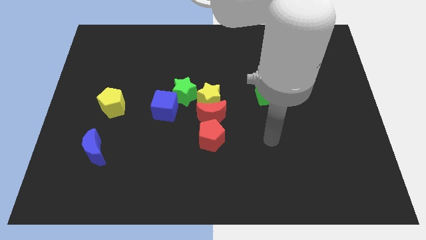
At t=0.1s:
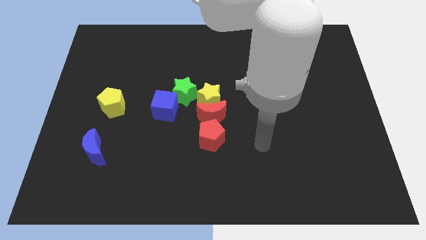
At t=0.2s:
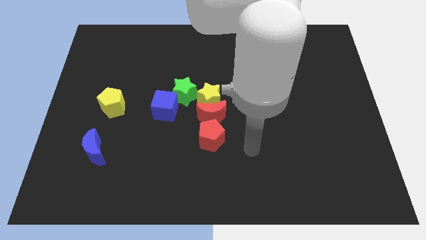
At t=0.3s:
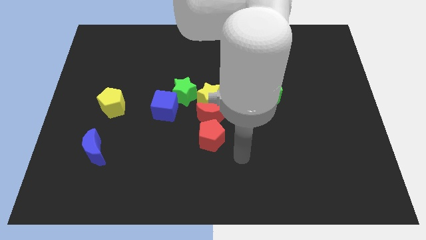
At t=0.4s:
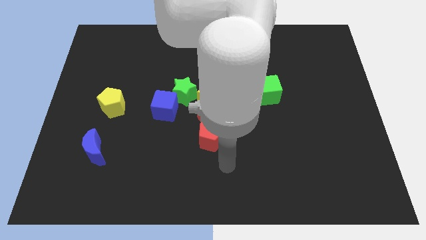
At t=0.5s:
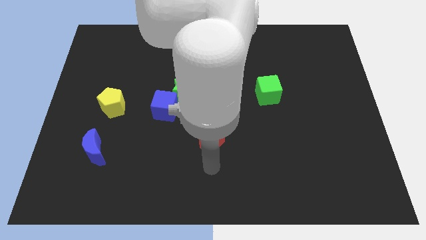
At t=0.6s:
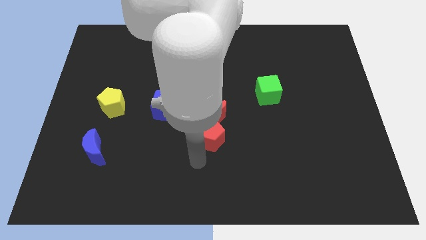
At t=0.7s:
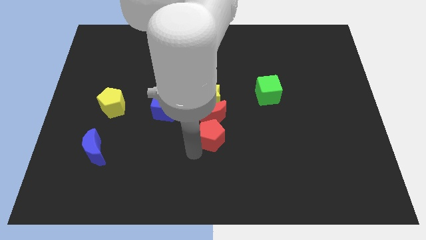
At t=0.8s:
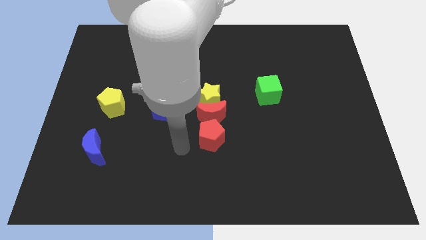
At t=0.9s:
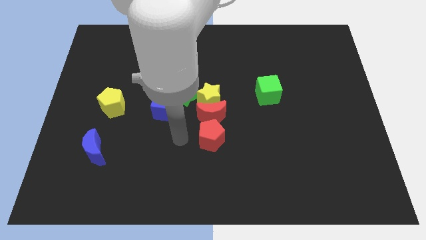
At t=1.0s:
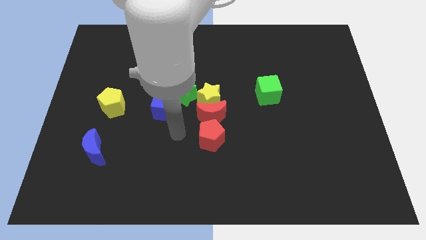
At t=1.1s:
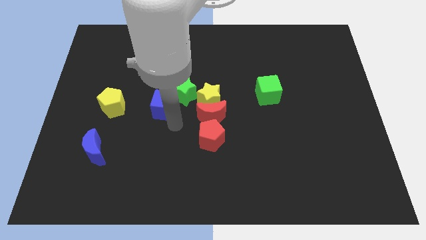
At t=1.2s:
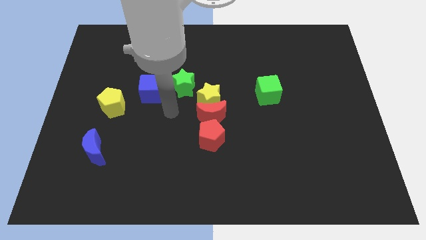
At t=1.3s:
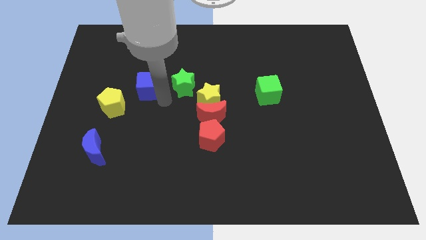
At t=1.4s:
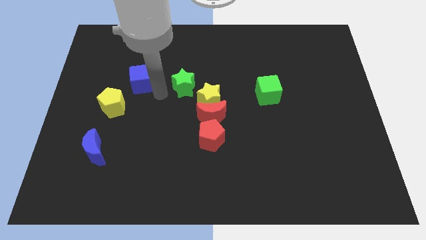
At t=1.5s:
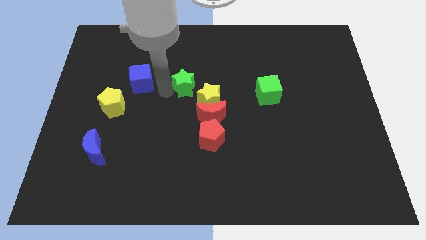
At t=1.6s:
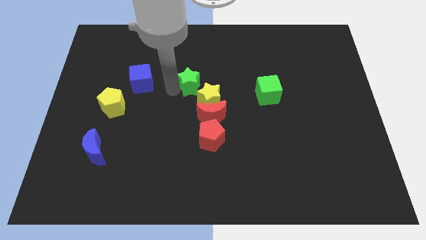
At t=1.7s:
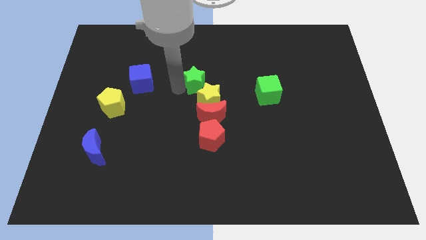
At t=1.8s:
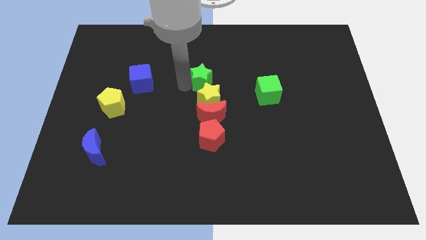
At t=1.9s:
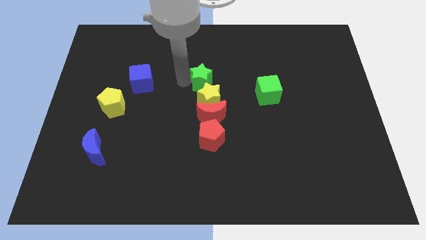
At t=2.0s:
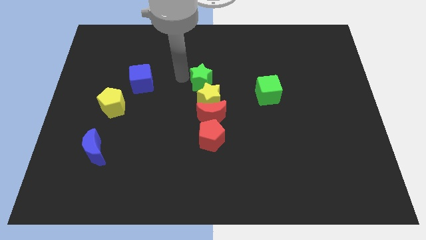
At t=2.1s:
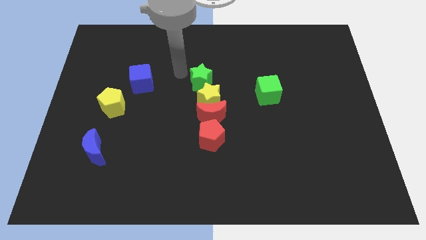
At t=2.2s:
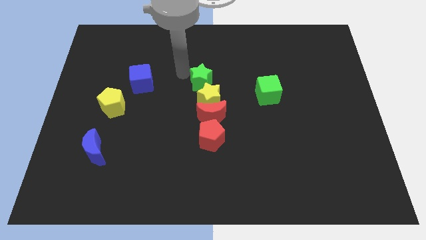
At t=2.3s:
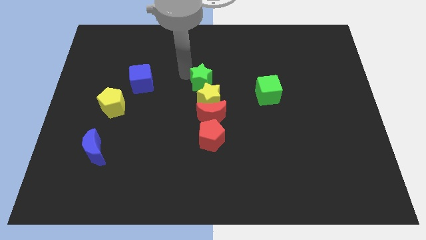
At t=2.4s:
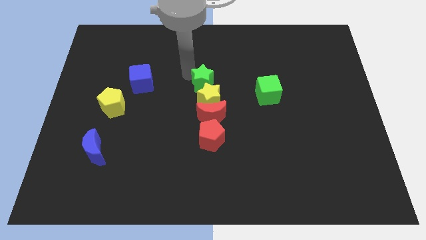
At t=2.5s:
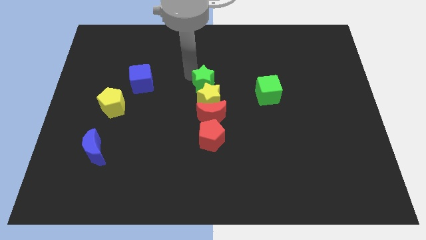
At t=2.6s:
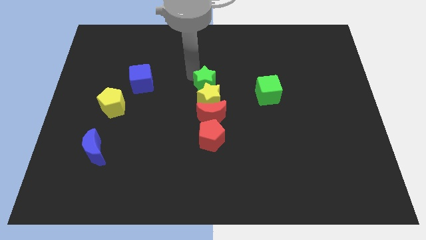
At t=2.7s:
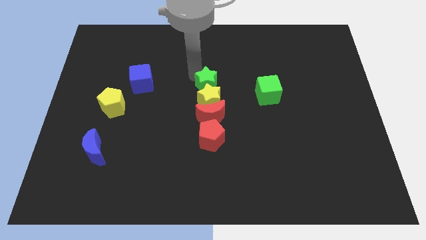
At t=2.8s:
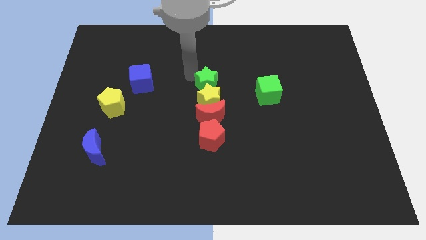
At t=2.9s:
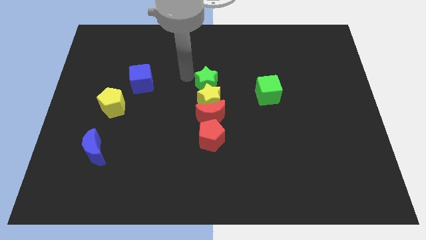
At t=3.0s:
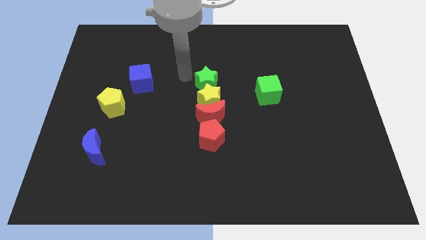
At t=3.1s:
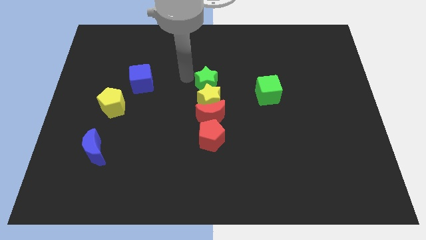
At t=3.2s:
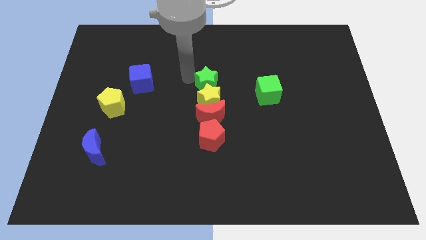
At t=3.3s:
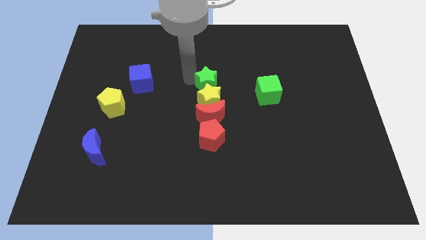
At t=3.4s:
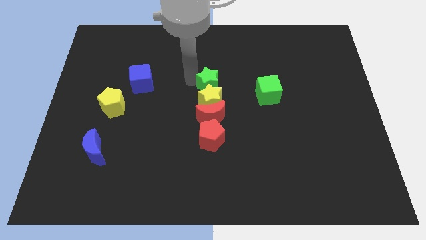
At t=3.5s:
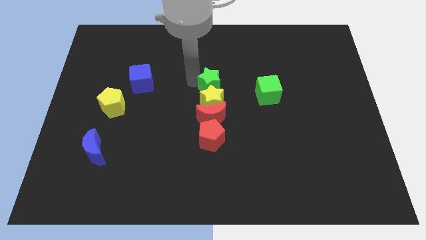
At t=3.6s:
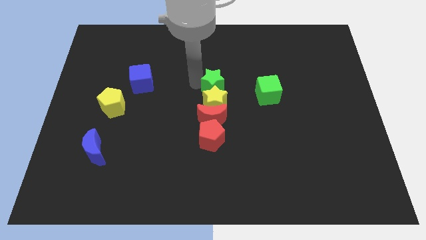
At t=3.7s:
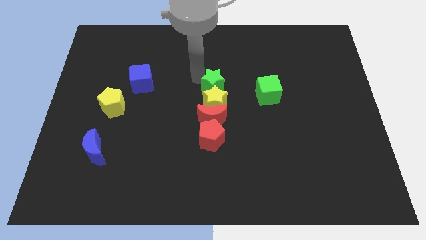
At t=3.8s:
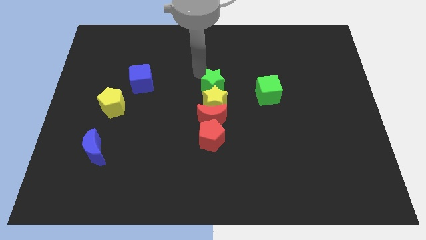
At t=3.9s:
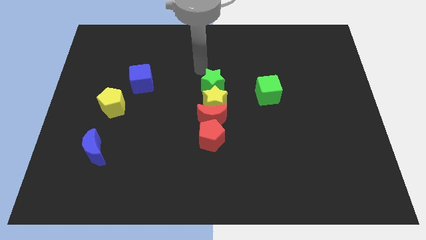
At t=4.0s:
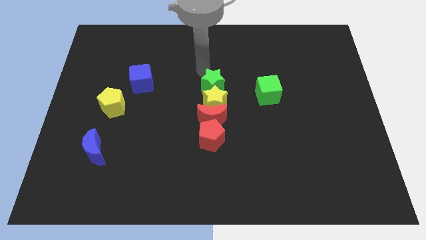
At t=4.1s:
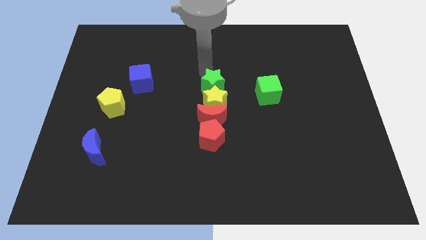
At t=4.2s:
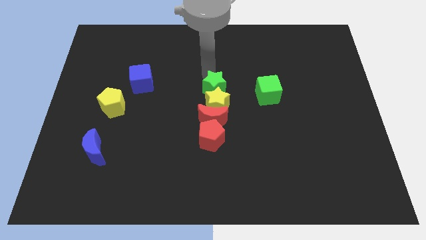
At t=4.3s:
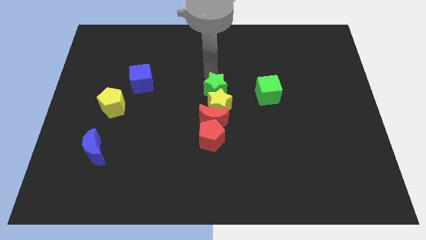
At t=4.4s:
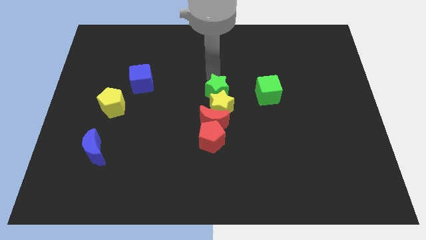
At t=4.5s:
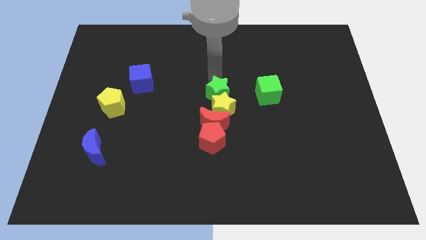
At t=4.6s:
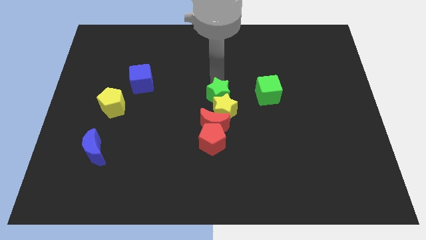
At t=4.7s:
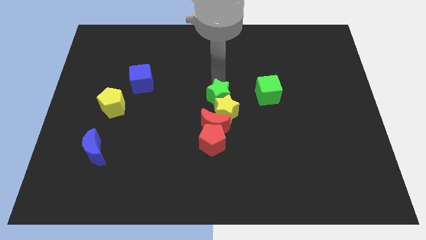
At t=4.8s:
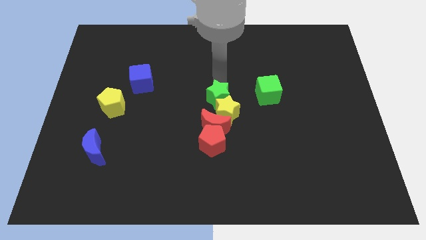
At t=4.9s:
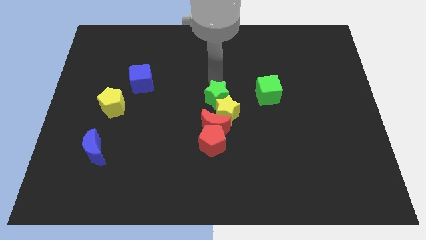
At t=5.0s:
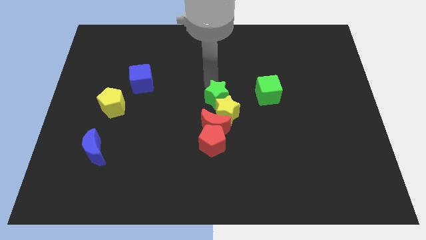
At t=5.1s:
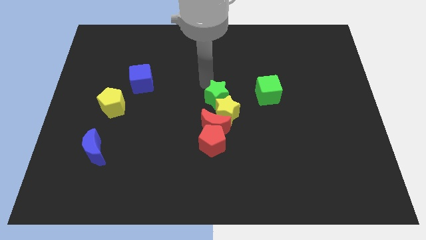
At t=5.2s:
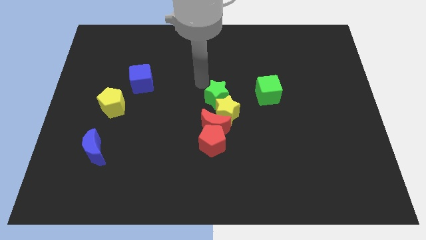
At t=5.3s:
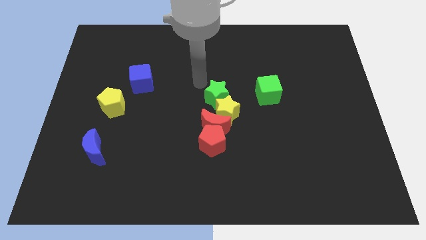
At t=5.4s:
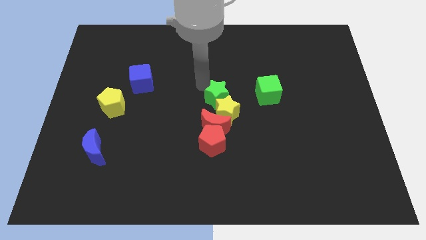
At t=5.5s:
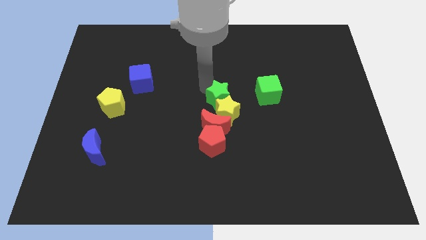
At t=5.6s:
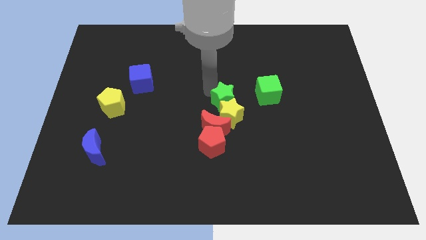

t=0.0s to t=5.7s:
slide the green star a little bit downwards and then right

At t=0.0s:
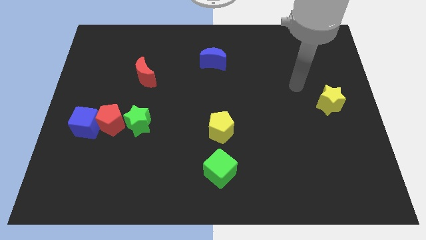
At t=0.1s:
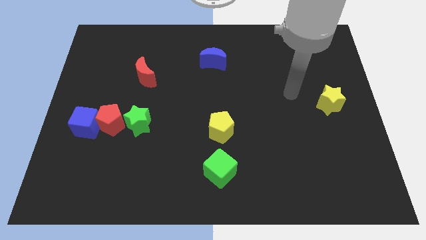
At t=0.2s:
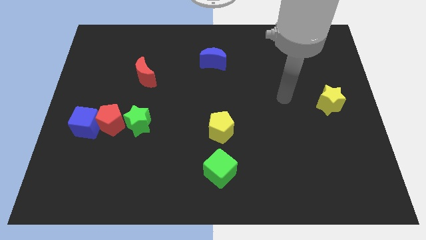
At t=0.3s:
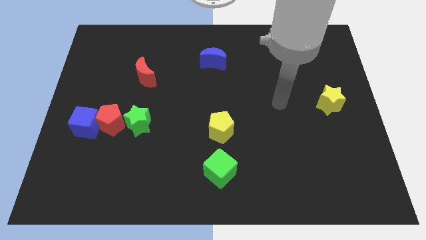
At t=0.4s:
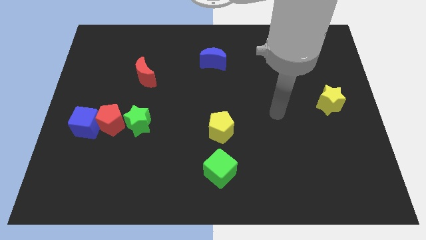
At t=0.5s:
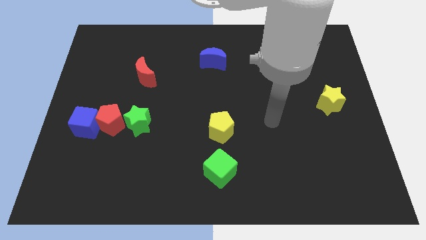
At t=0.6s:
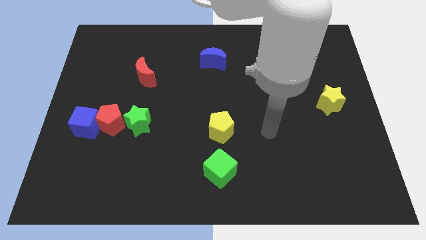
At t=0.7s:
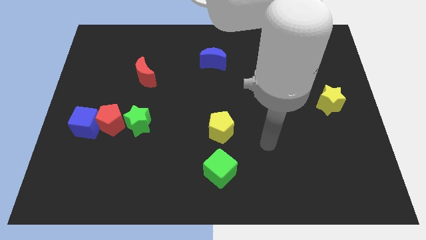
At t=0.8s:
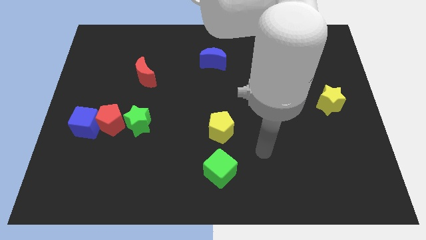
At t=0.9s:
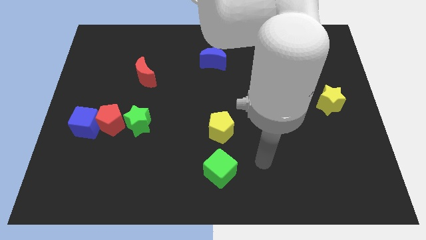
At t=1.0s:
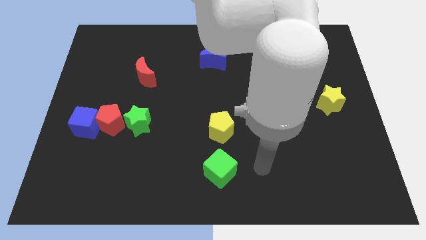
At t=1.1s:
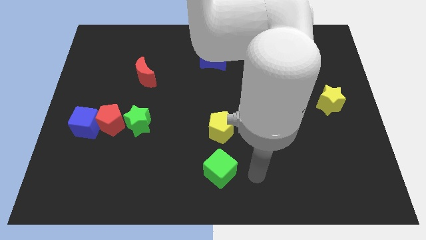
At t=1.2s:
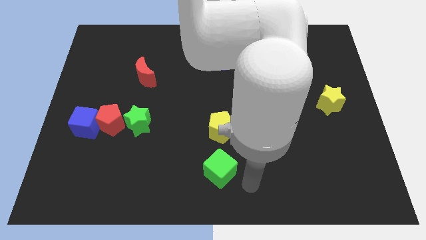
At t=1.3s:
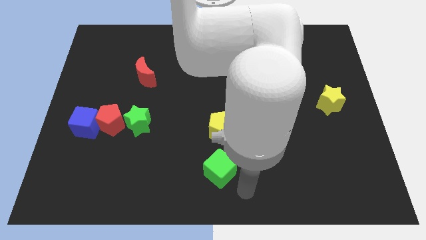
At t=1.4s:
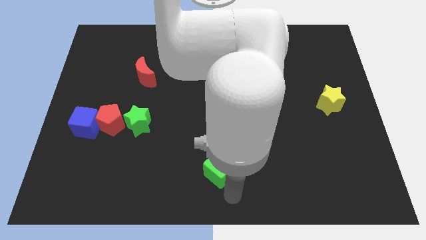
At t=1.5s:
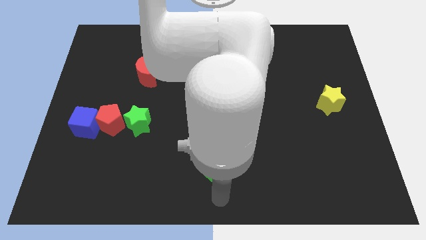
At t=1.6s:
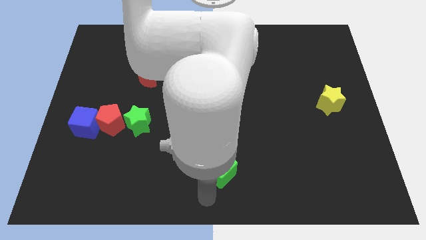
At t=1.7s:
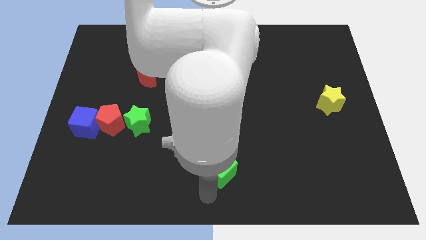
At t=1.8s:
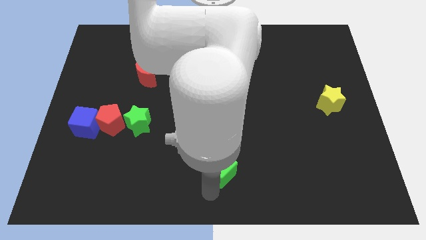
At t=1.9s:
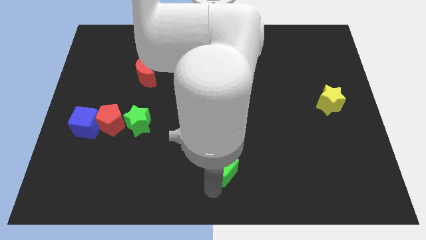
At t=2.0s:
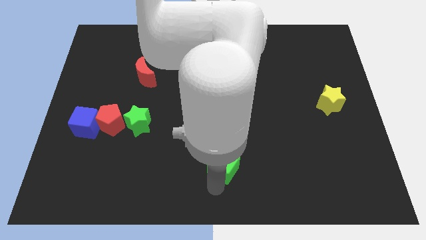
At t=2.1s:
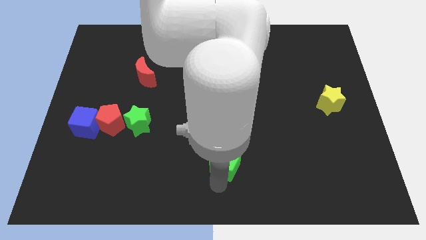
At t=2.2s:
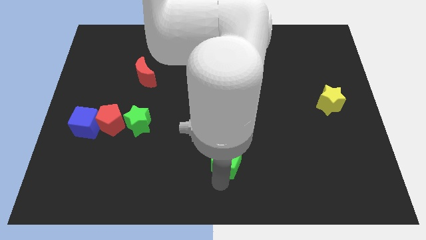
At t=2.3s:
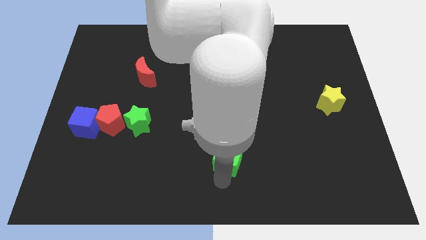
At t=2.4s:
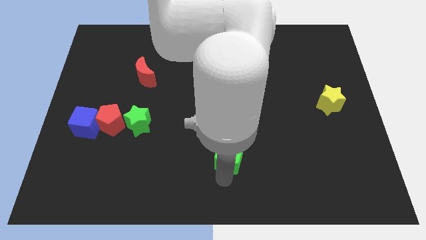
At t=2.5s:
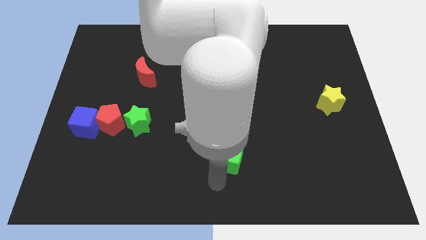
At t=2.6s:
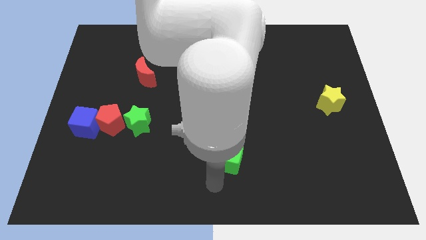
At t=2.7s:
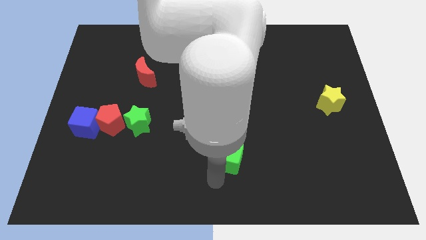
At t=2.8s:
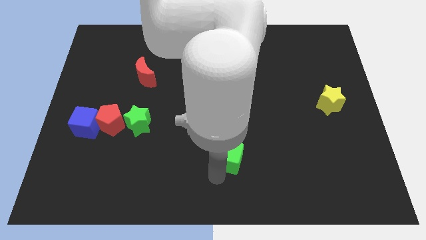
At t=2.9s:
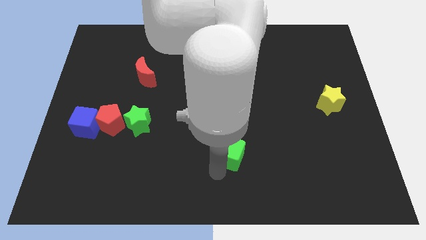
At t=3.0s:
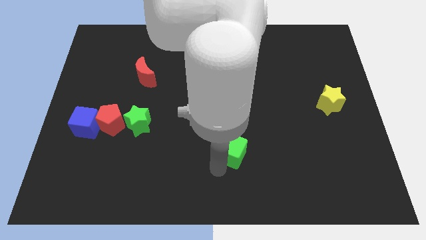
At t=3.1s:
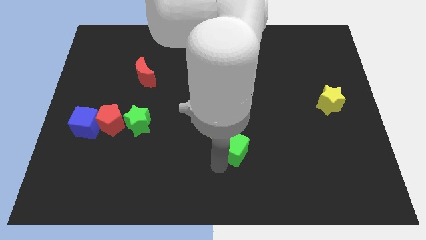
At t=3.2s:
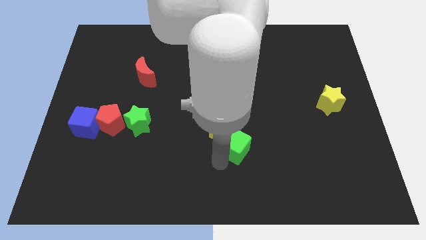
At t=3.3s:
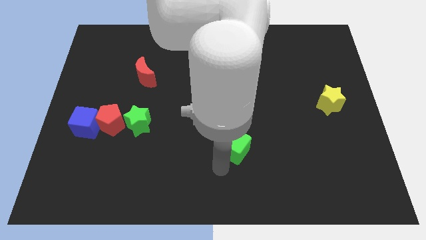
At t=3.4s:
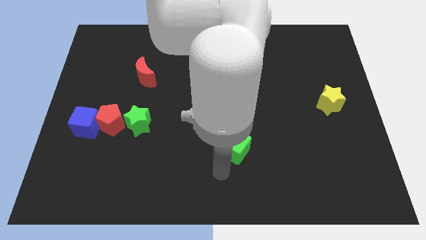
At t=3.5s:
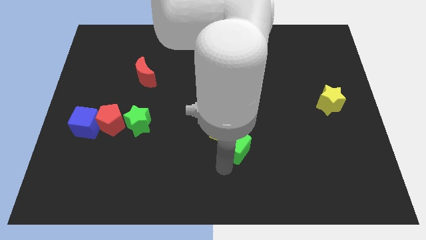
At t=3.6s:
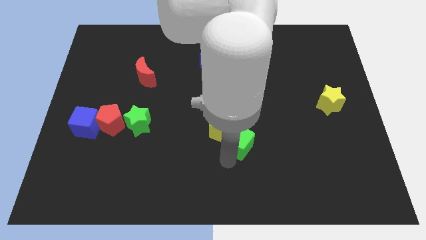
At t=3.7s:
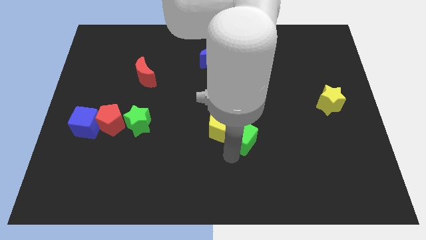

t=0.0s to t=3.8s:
slightly push the green cube up
